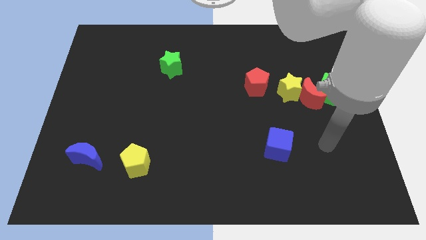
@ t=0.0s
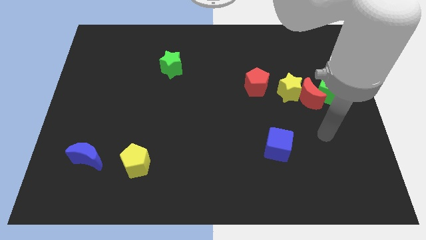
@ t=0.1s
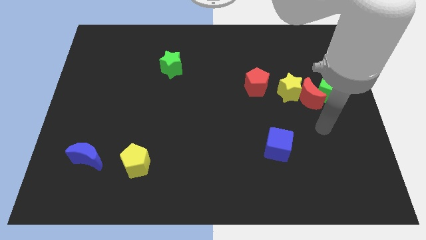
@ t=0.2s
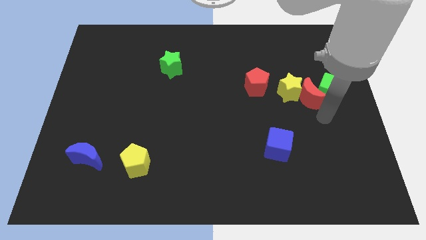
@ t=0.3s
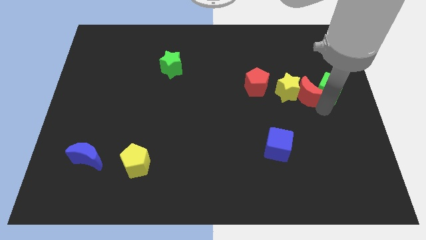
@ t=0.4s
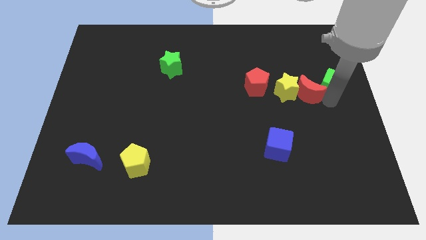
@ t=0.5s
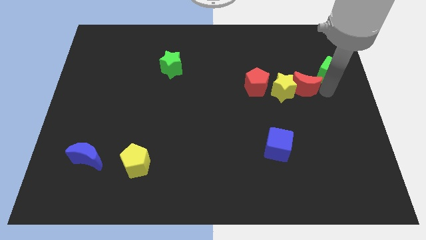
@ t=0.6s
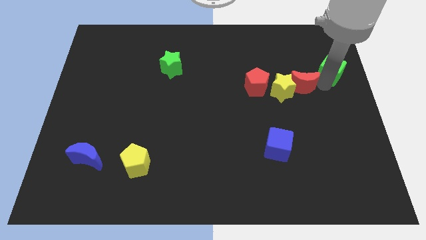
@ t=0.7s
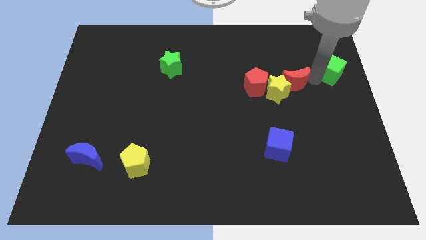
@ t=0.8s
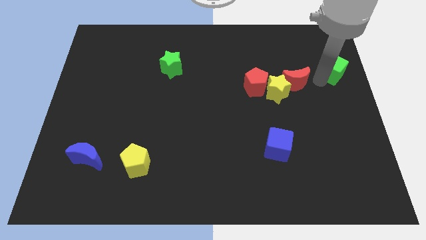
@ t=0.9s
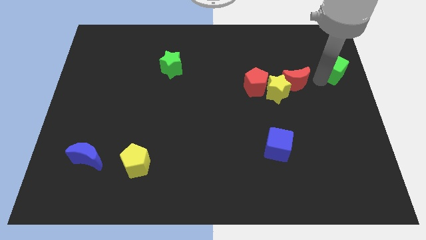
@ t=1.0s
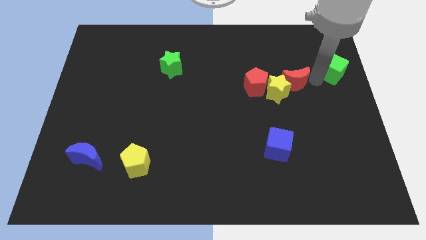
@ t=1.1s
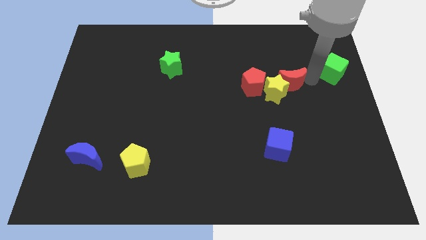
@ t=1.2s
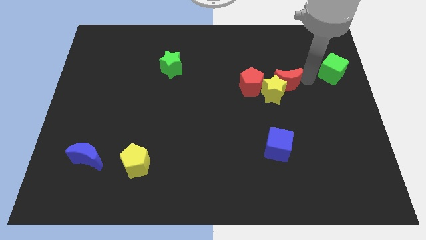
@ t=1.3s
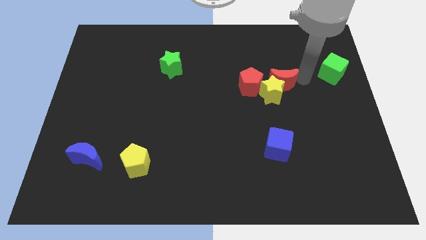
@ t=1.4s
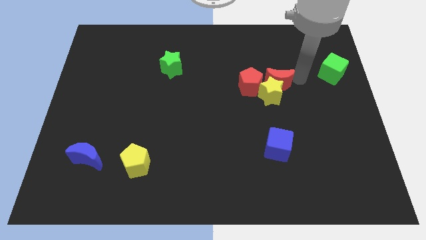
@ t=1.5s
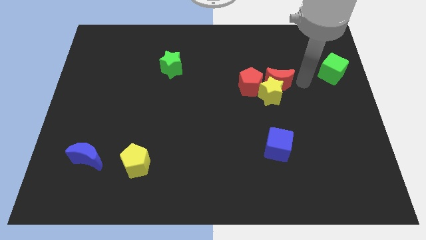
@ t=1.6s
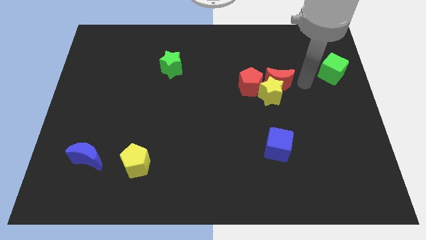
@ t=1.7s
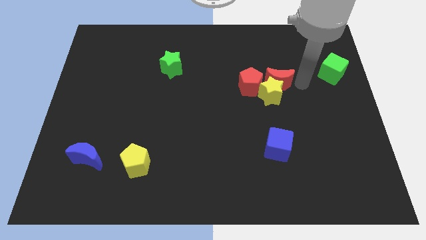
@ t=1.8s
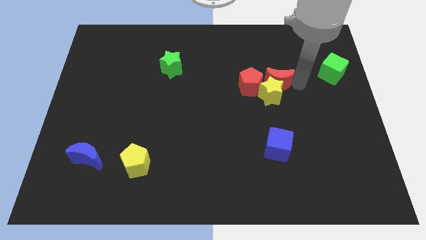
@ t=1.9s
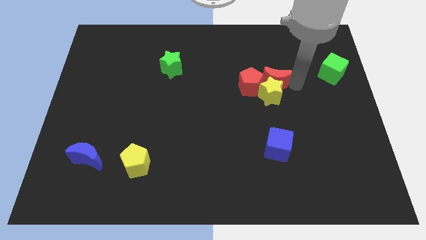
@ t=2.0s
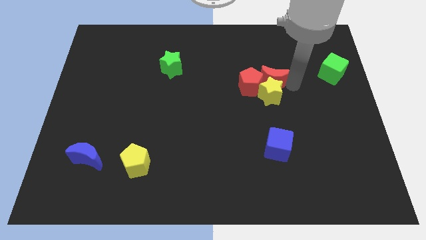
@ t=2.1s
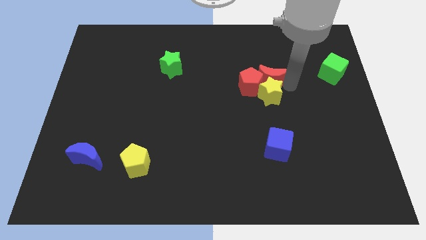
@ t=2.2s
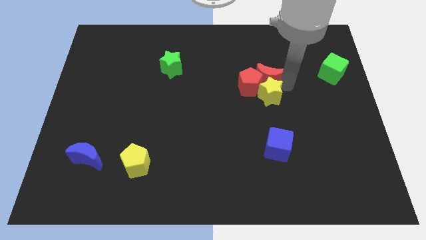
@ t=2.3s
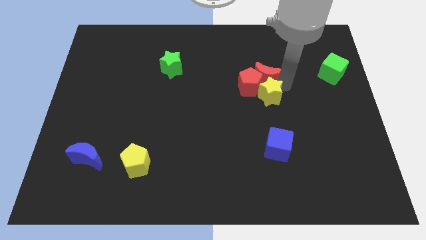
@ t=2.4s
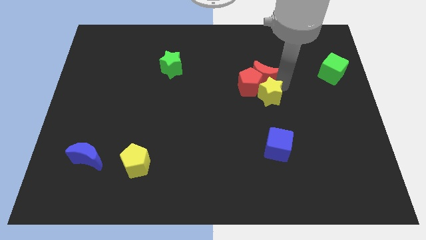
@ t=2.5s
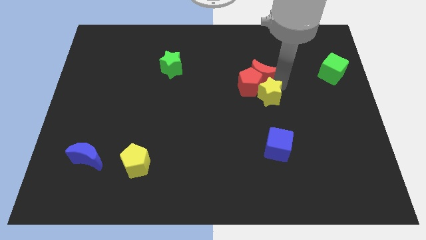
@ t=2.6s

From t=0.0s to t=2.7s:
pull the red moon apart from the yellow star and green cube

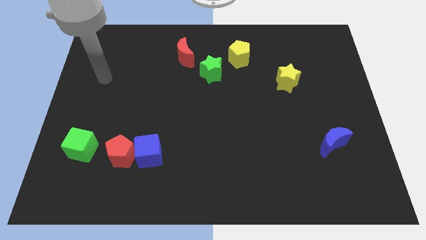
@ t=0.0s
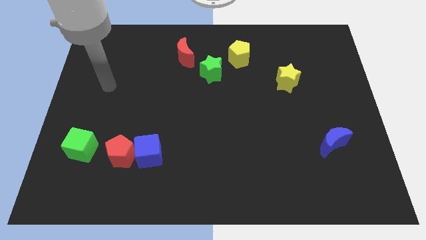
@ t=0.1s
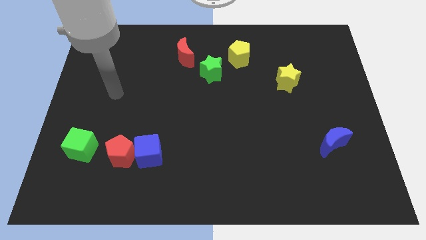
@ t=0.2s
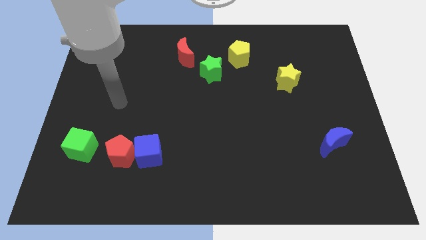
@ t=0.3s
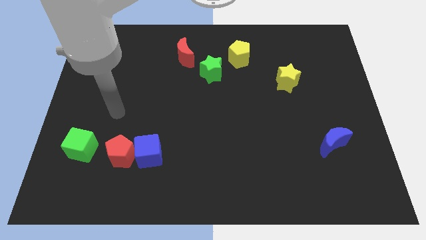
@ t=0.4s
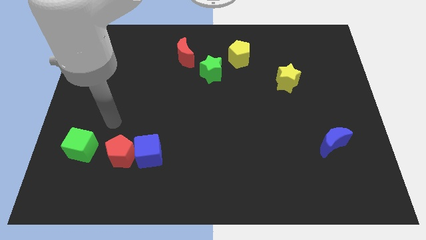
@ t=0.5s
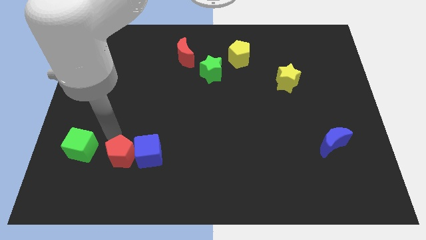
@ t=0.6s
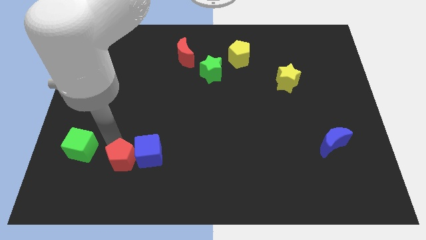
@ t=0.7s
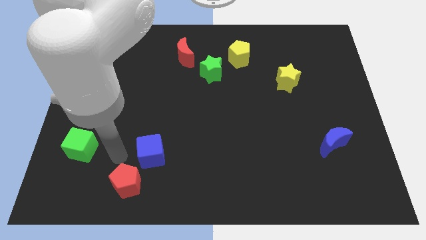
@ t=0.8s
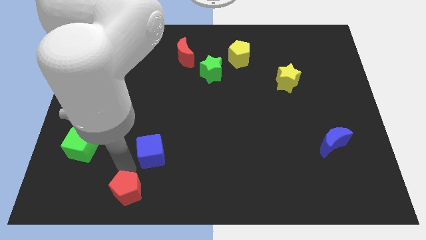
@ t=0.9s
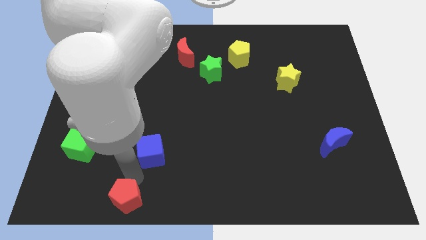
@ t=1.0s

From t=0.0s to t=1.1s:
move the blue cube away from the red pentagon

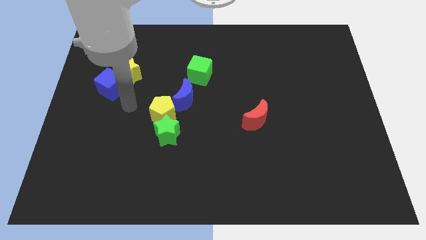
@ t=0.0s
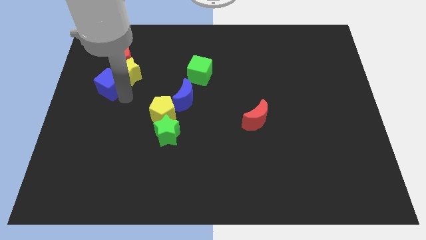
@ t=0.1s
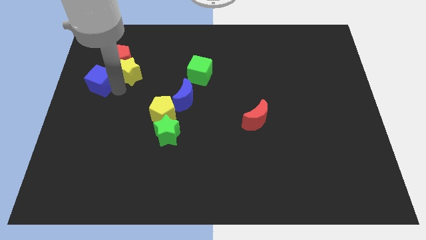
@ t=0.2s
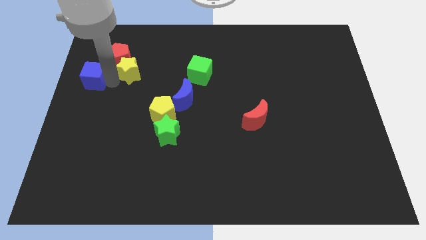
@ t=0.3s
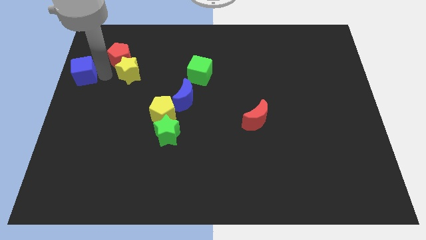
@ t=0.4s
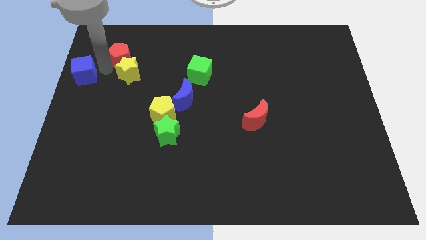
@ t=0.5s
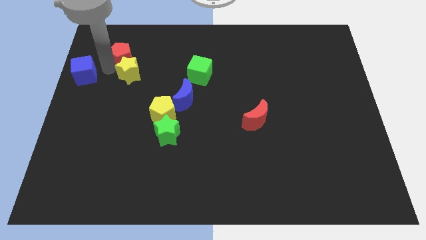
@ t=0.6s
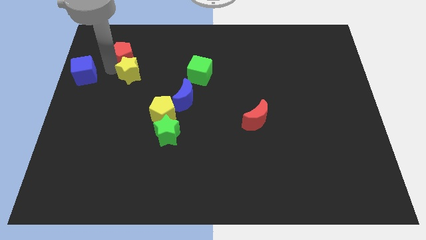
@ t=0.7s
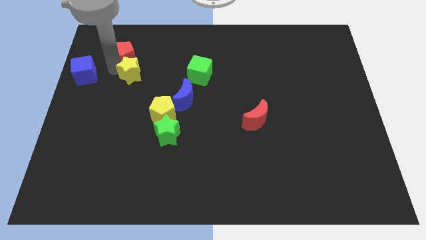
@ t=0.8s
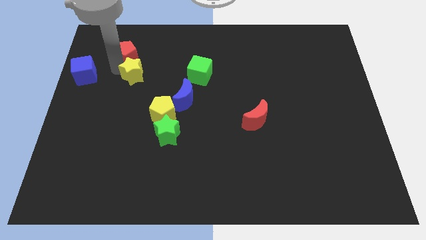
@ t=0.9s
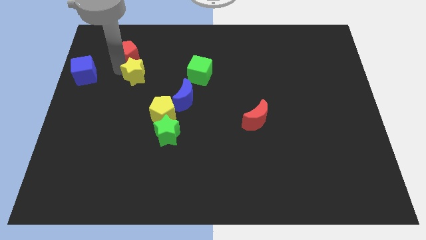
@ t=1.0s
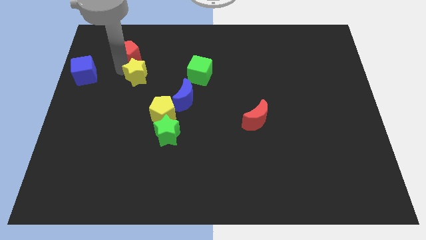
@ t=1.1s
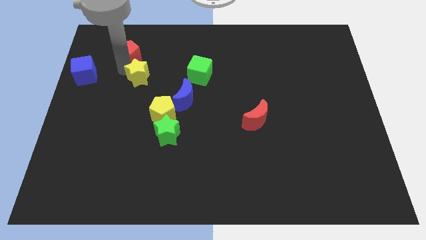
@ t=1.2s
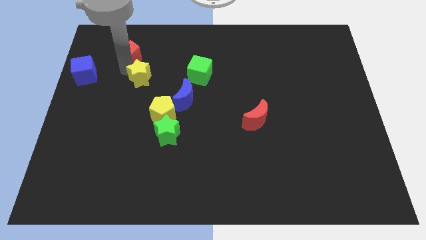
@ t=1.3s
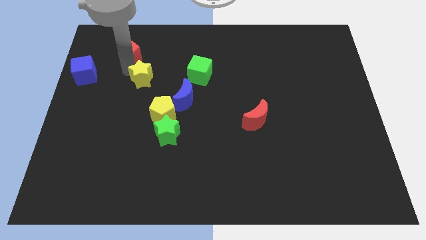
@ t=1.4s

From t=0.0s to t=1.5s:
separate the yellow star from the blue cube and red pentagon

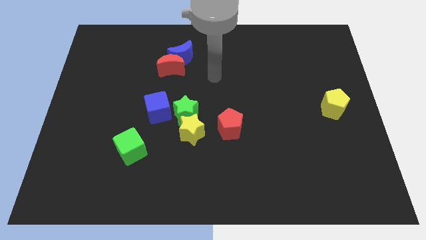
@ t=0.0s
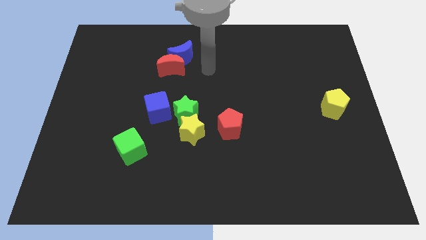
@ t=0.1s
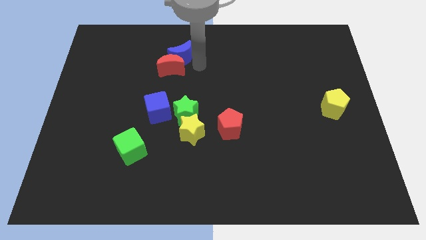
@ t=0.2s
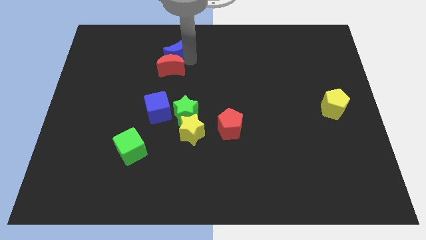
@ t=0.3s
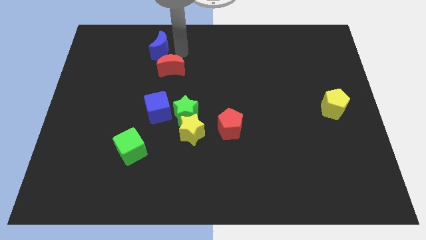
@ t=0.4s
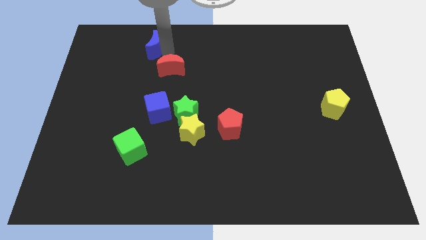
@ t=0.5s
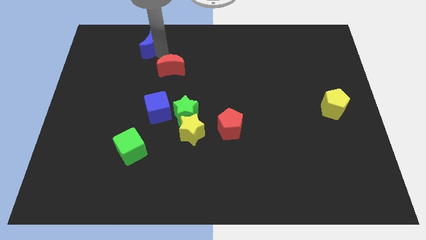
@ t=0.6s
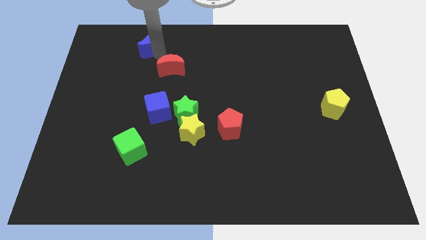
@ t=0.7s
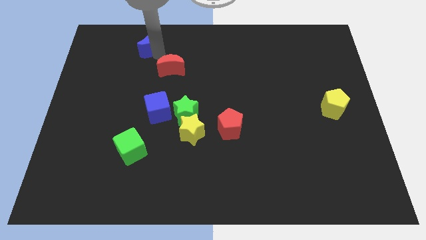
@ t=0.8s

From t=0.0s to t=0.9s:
move the red moon away from the blue moon

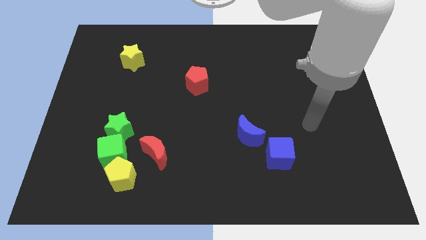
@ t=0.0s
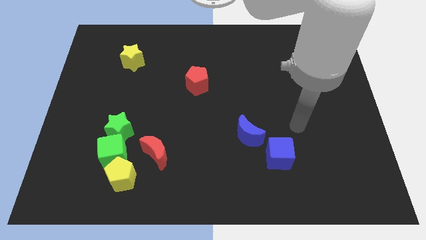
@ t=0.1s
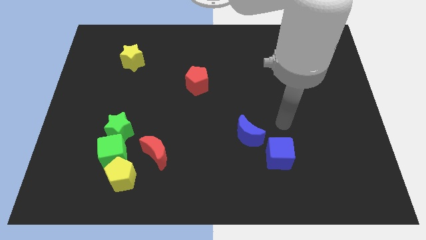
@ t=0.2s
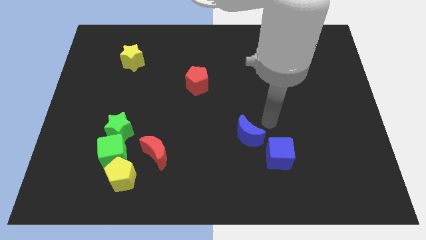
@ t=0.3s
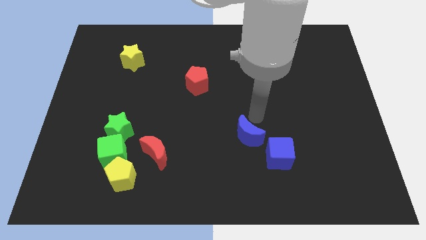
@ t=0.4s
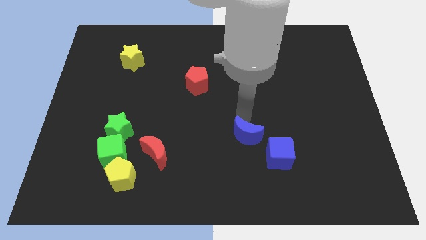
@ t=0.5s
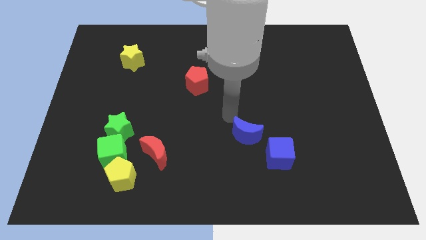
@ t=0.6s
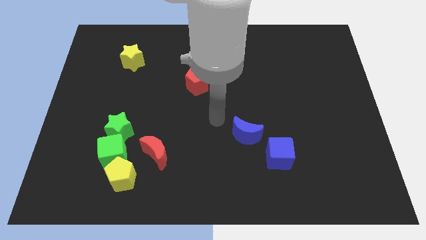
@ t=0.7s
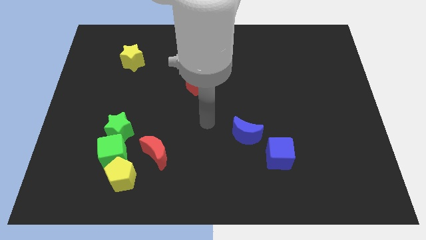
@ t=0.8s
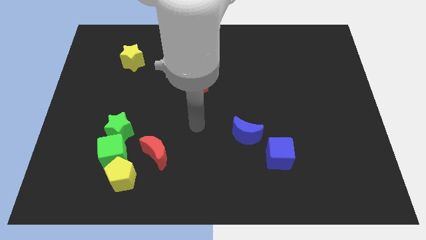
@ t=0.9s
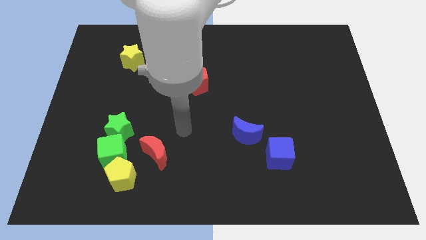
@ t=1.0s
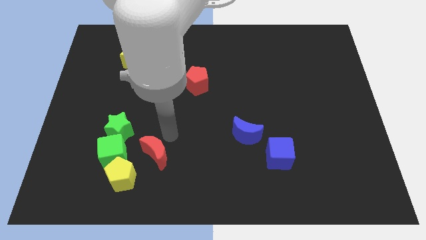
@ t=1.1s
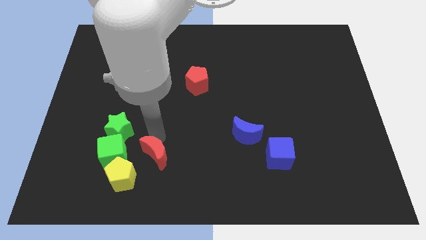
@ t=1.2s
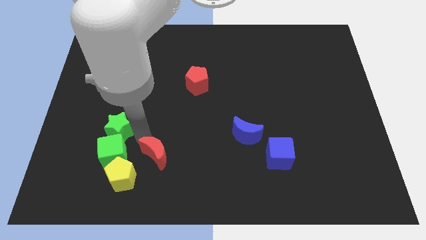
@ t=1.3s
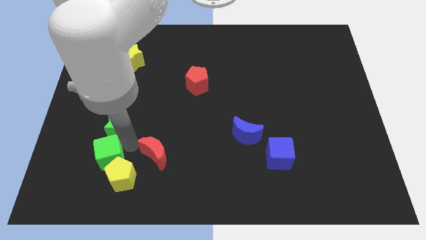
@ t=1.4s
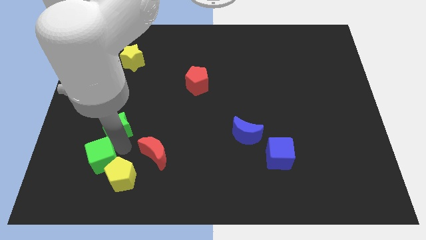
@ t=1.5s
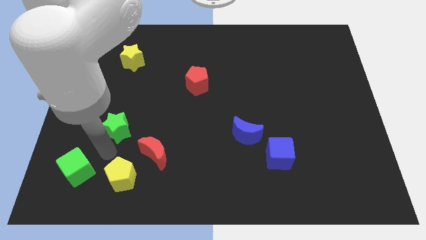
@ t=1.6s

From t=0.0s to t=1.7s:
move the green star away from the green cube

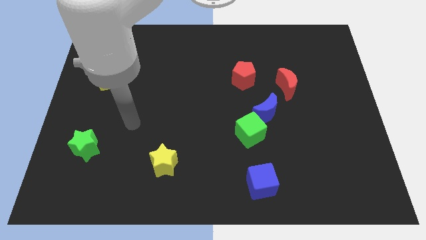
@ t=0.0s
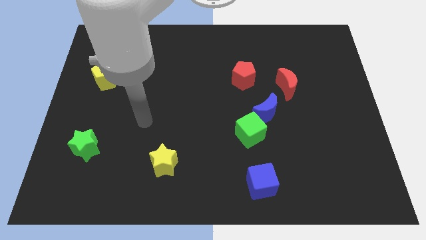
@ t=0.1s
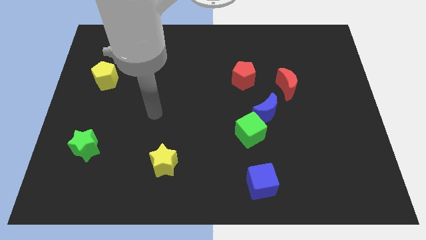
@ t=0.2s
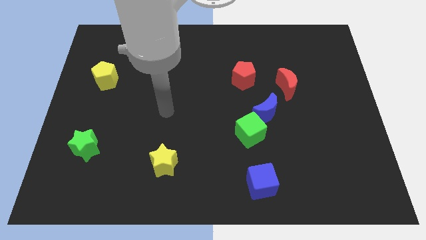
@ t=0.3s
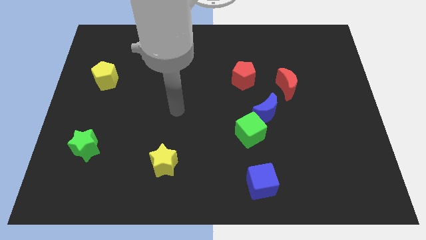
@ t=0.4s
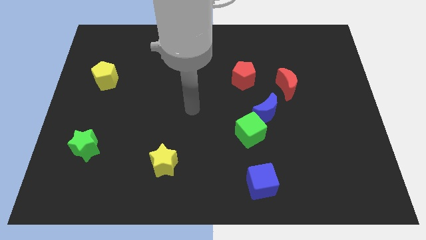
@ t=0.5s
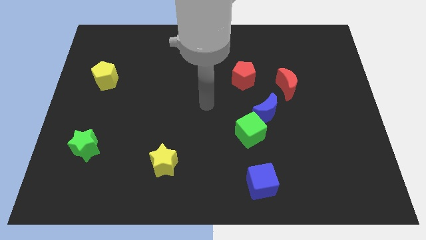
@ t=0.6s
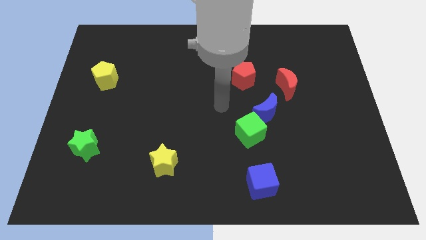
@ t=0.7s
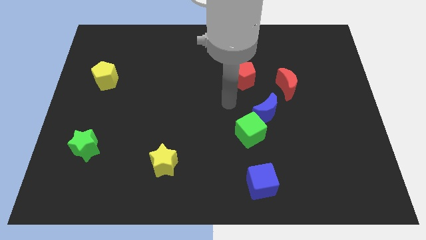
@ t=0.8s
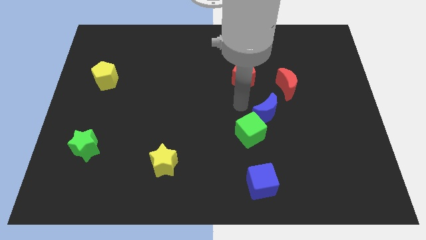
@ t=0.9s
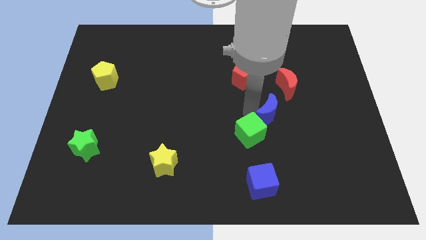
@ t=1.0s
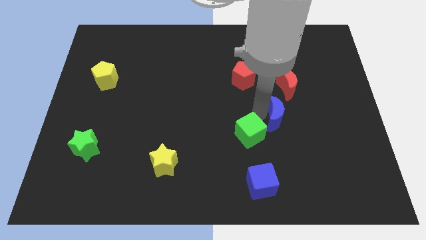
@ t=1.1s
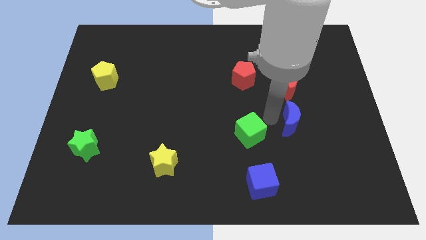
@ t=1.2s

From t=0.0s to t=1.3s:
pull the green cube apart from the blue moon

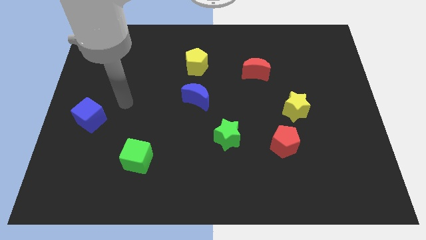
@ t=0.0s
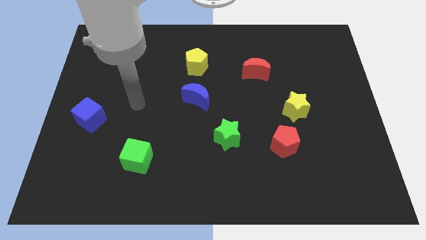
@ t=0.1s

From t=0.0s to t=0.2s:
pull the red pentagon apart from the yellow star

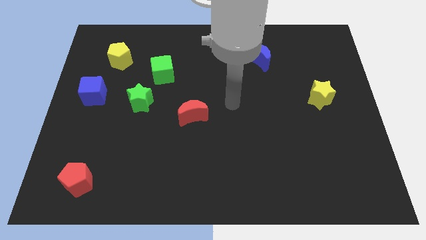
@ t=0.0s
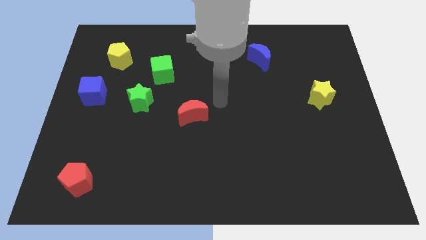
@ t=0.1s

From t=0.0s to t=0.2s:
pull the green cube apart from the green star
